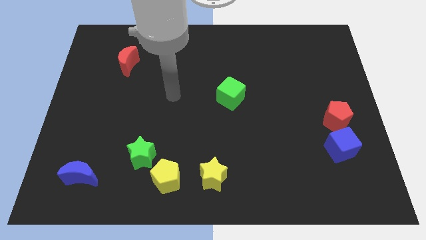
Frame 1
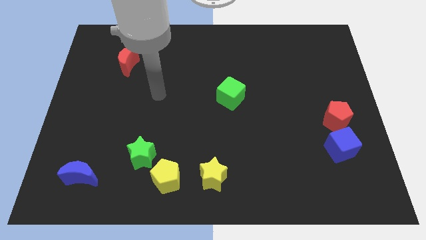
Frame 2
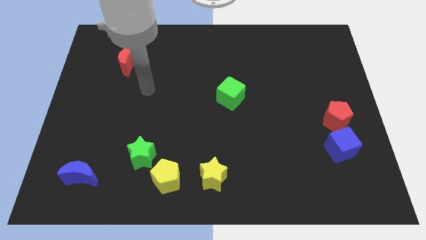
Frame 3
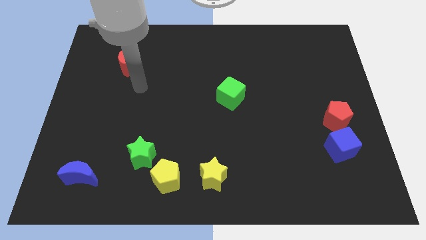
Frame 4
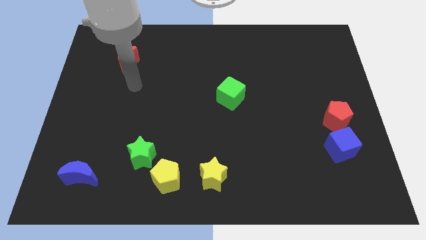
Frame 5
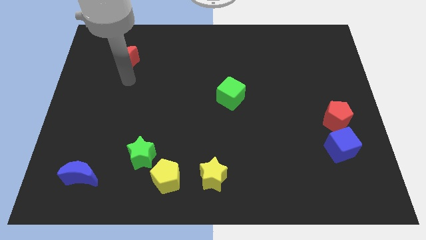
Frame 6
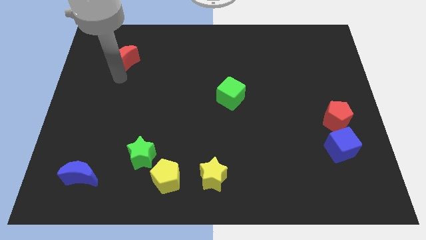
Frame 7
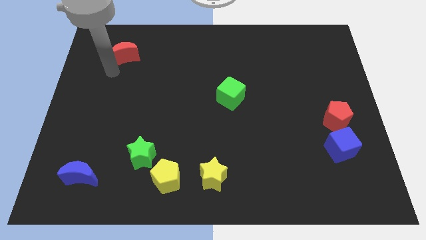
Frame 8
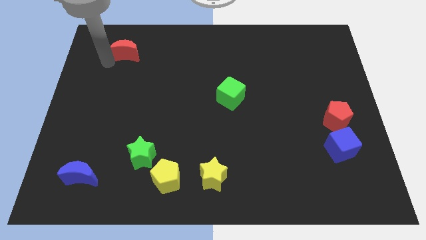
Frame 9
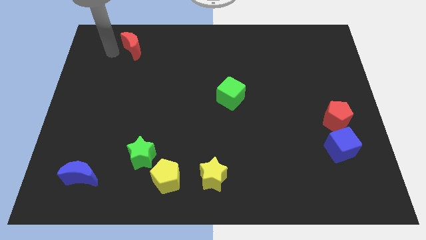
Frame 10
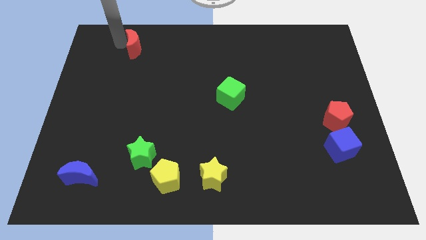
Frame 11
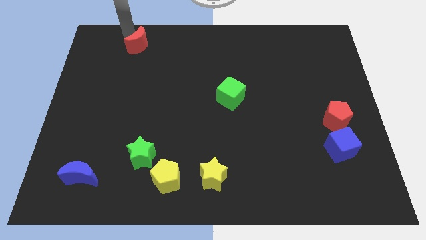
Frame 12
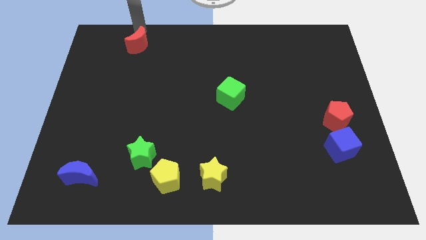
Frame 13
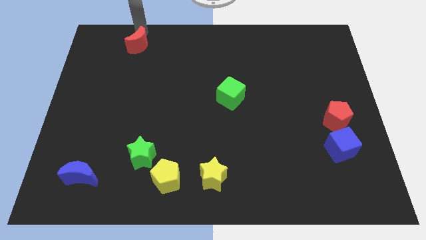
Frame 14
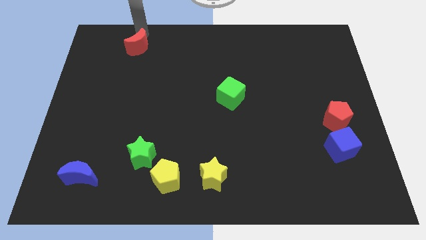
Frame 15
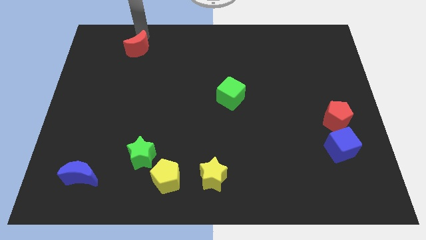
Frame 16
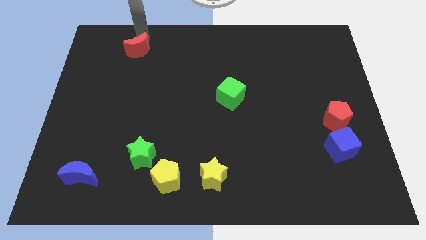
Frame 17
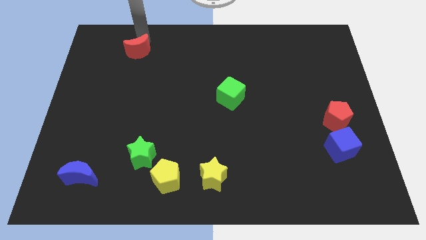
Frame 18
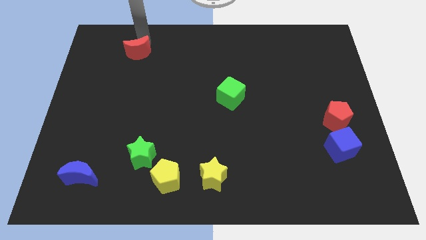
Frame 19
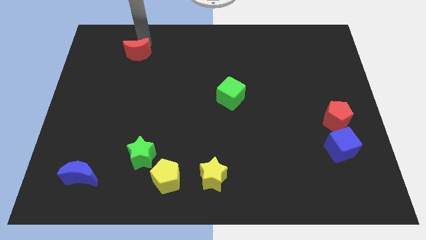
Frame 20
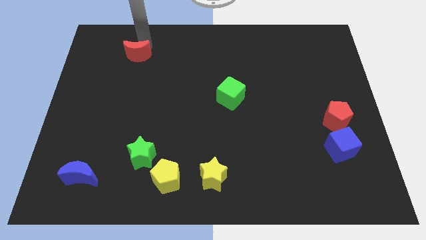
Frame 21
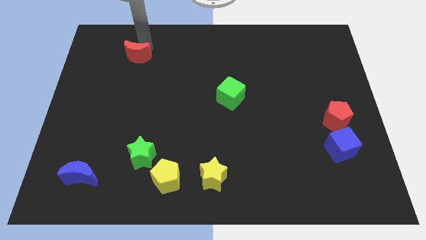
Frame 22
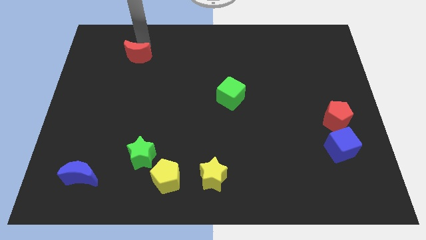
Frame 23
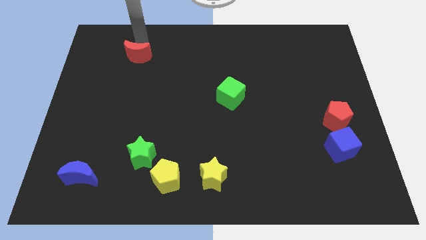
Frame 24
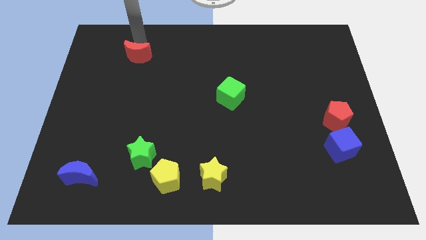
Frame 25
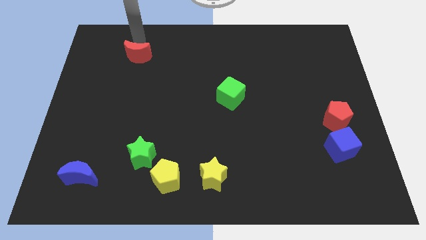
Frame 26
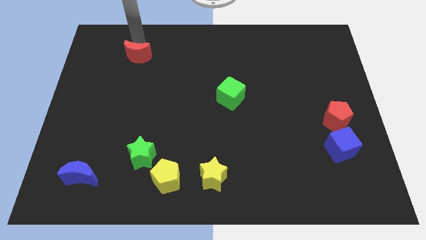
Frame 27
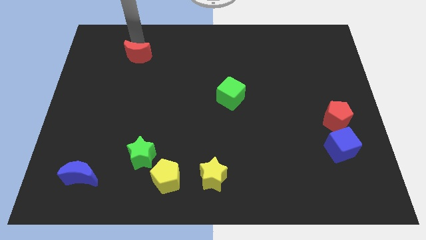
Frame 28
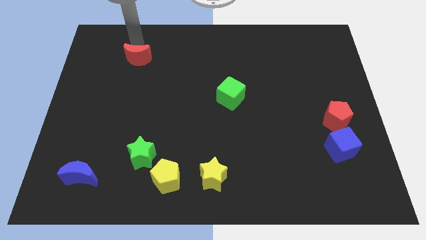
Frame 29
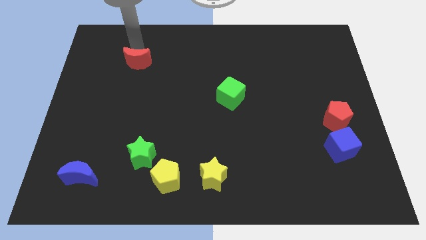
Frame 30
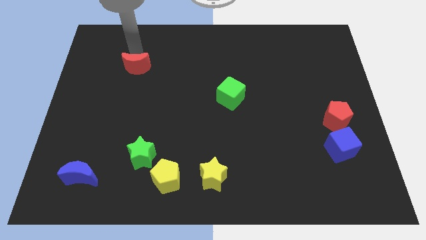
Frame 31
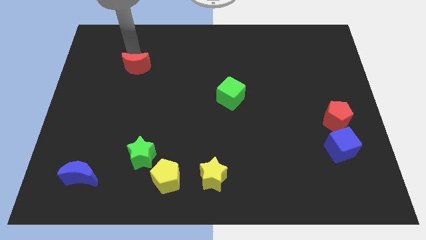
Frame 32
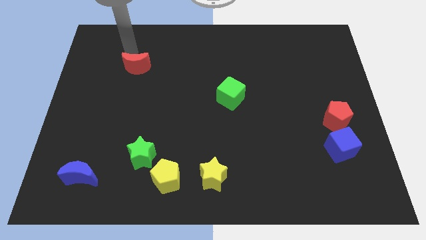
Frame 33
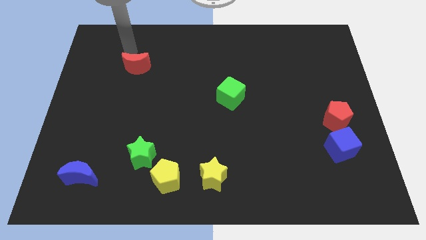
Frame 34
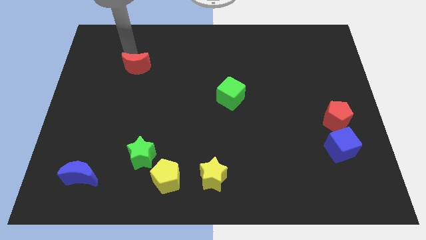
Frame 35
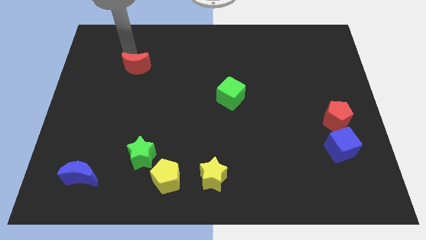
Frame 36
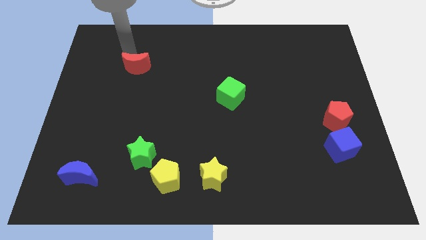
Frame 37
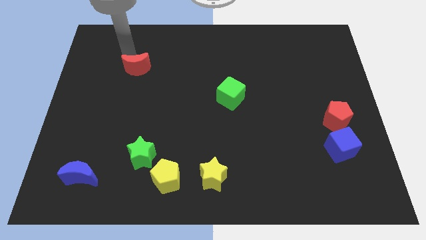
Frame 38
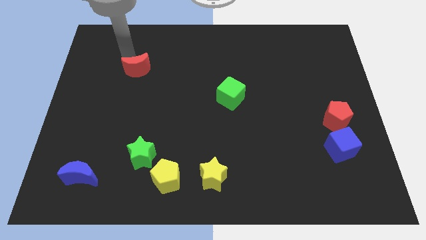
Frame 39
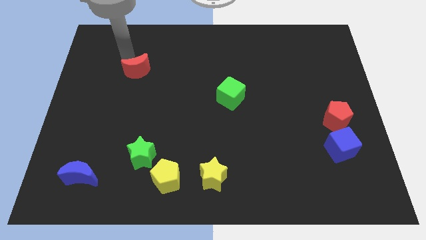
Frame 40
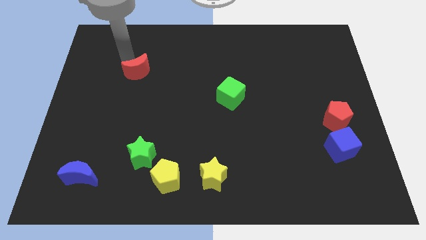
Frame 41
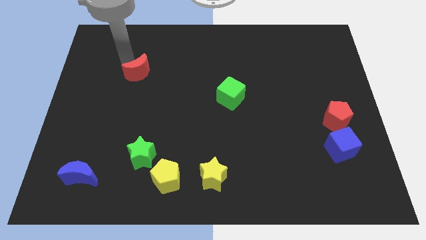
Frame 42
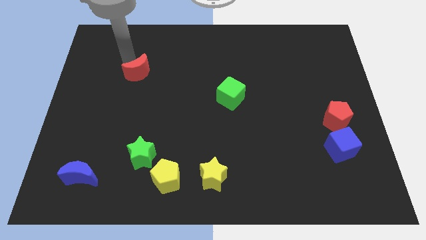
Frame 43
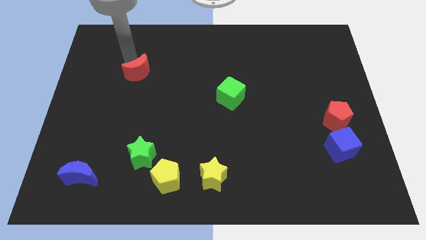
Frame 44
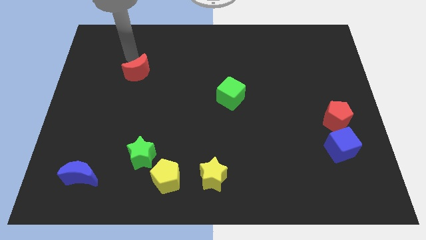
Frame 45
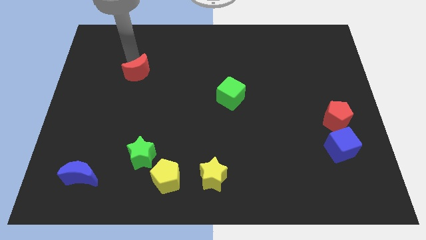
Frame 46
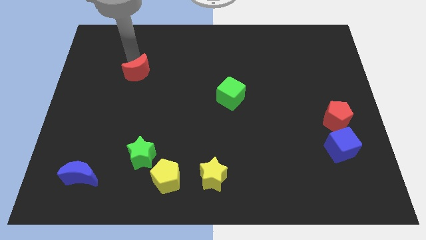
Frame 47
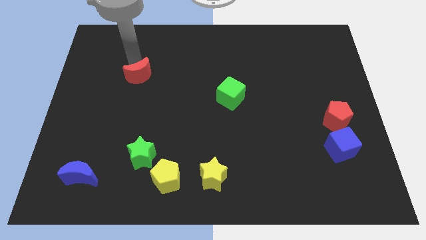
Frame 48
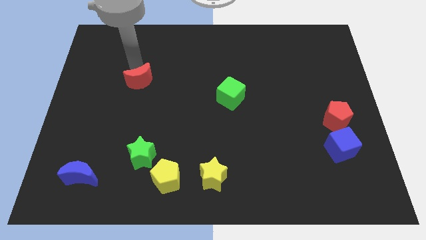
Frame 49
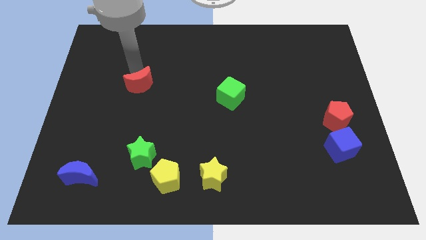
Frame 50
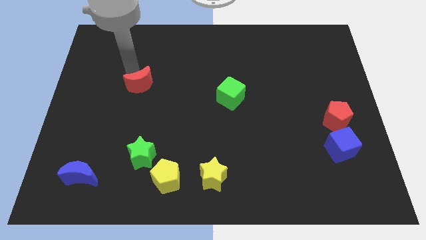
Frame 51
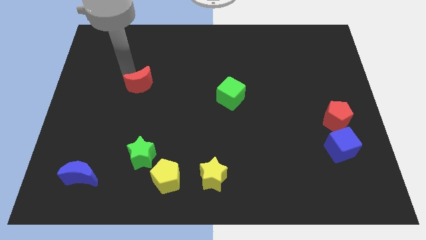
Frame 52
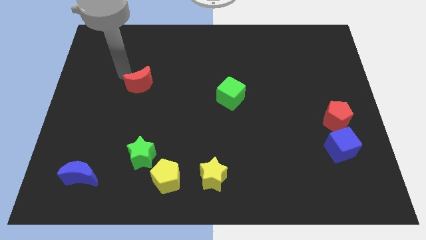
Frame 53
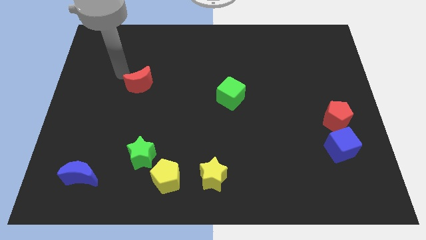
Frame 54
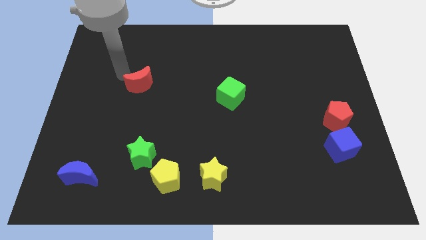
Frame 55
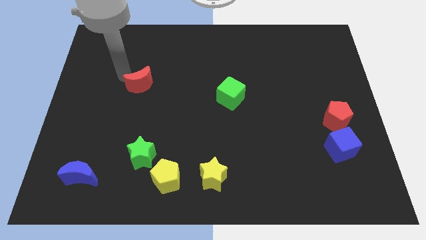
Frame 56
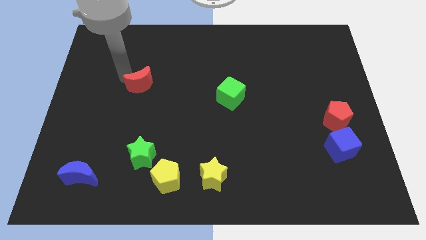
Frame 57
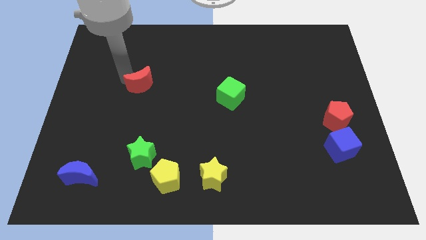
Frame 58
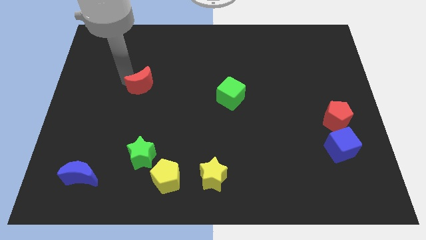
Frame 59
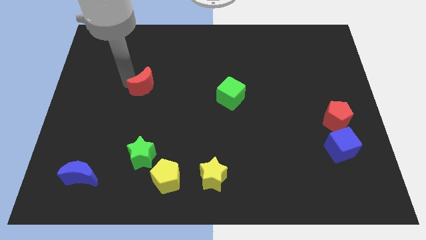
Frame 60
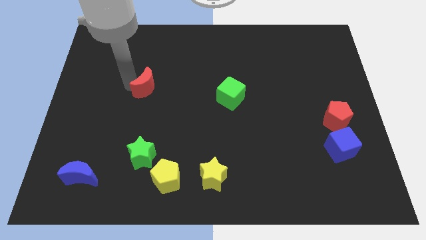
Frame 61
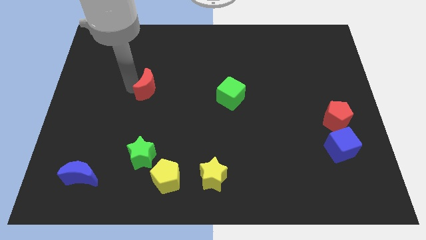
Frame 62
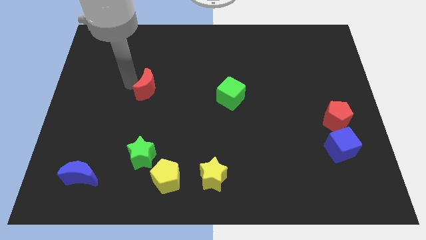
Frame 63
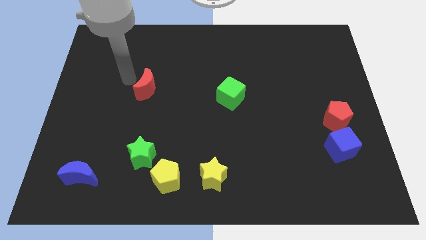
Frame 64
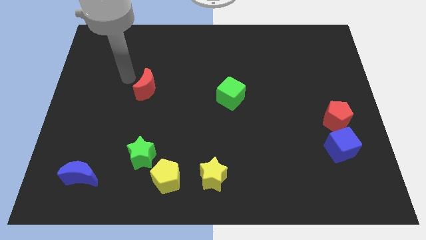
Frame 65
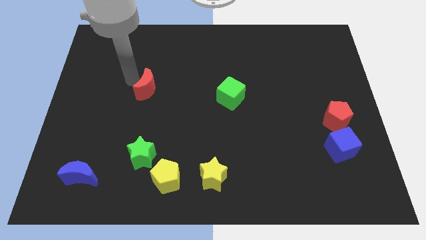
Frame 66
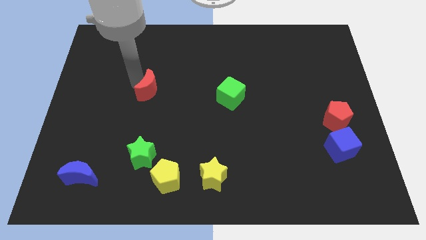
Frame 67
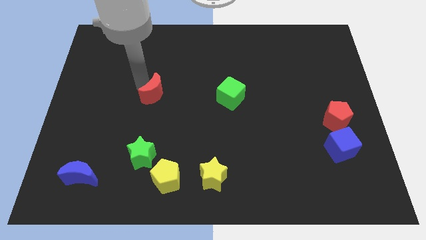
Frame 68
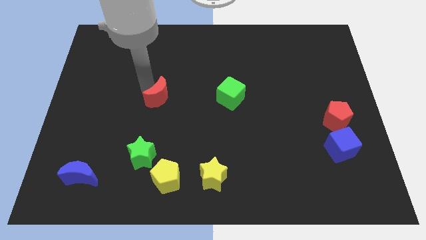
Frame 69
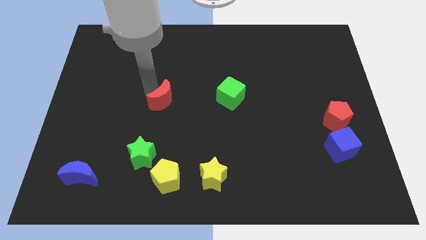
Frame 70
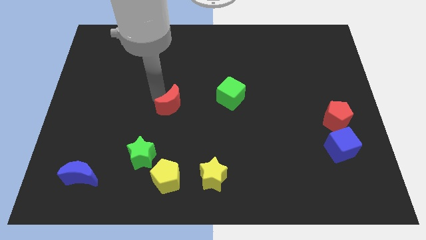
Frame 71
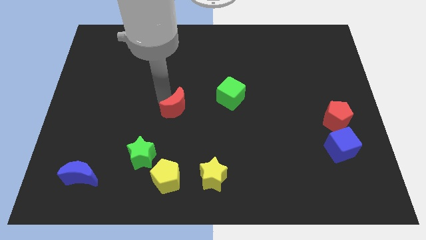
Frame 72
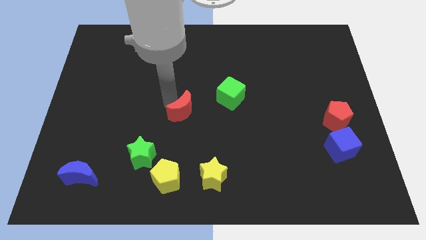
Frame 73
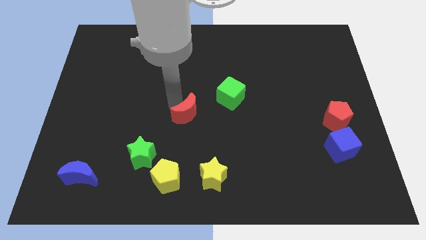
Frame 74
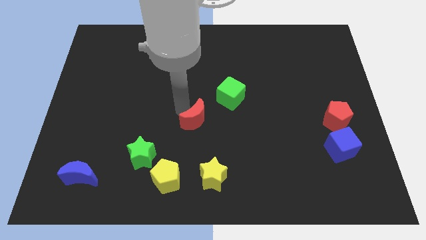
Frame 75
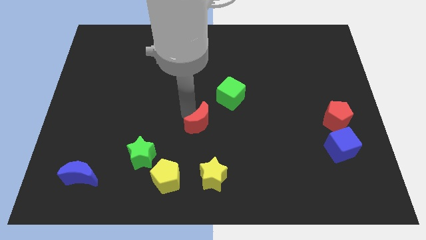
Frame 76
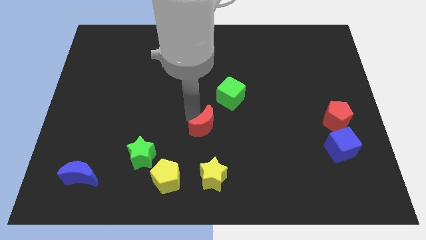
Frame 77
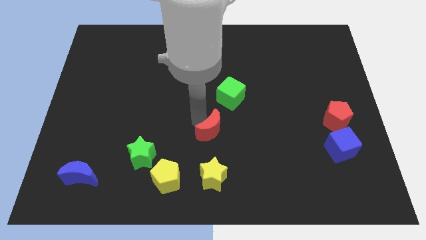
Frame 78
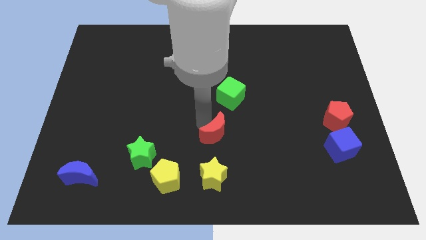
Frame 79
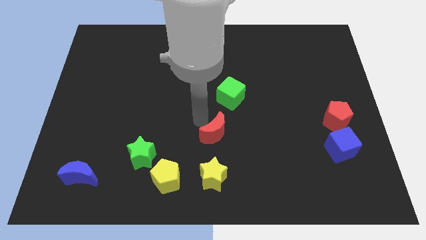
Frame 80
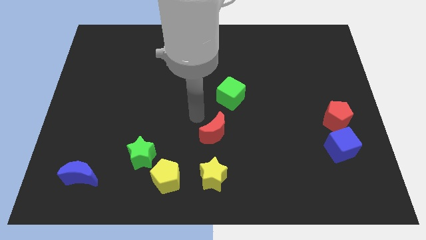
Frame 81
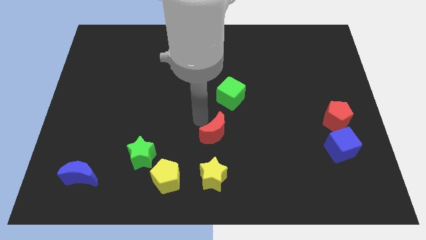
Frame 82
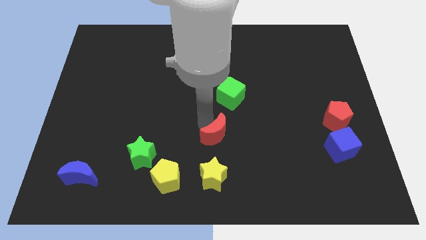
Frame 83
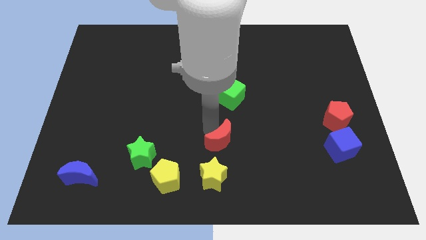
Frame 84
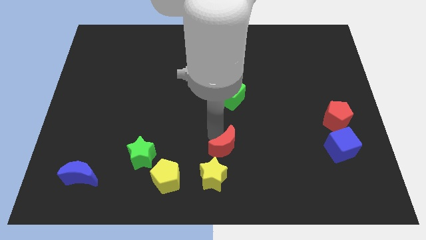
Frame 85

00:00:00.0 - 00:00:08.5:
push the red moon to the top right of the yellow star
